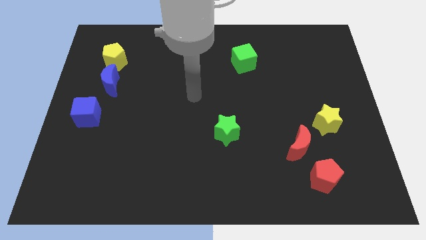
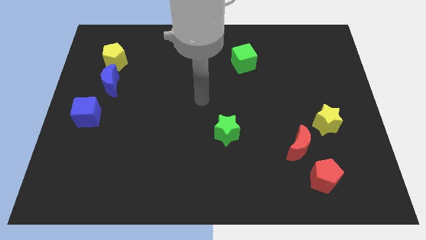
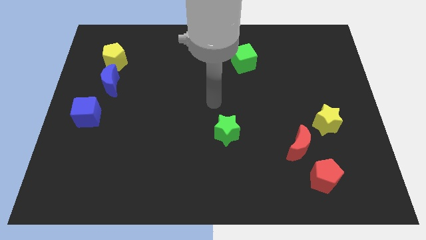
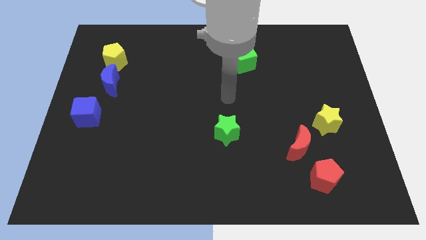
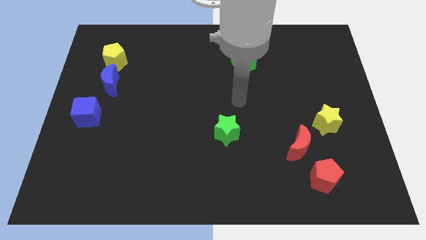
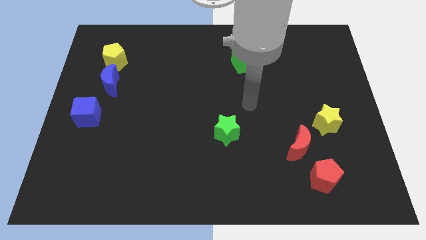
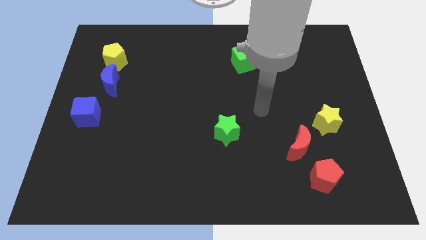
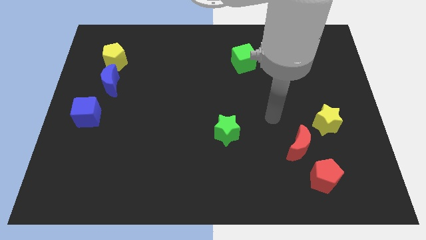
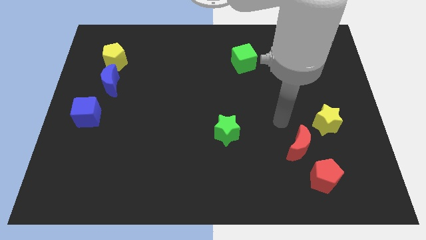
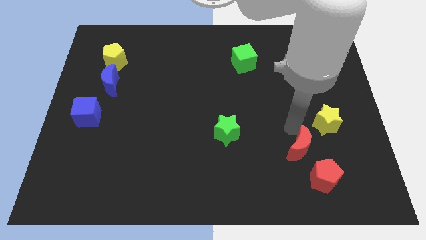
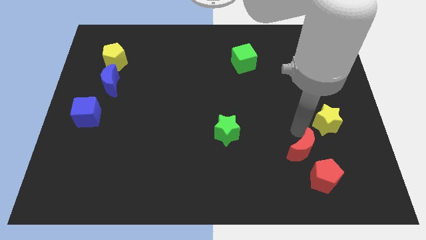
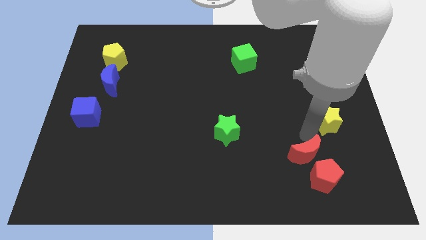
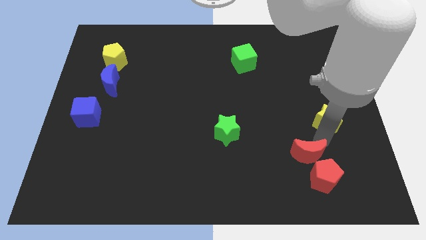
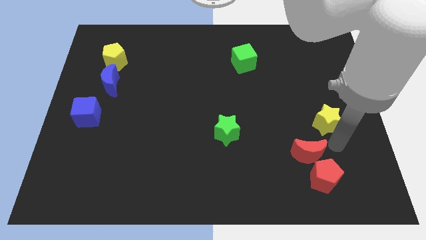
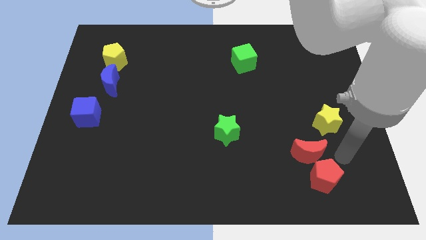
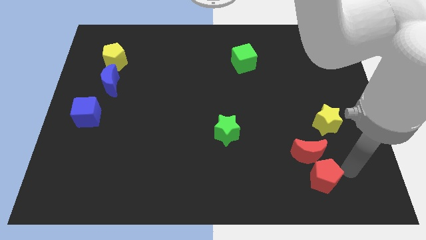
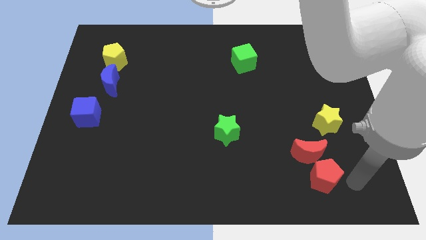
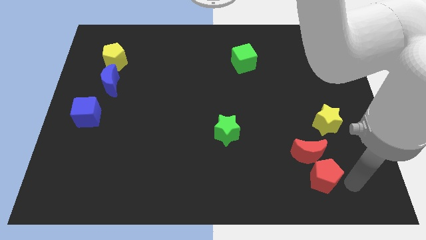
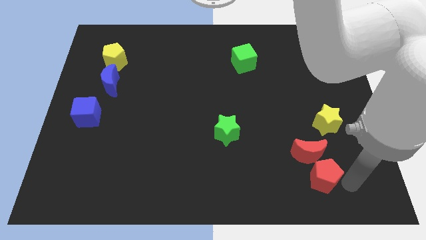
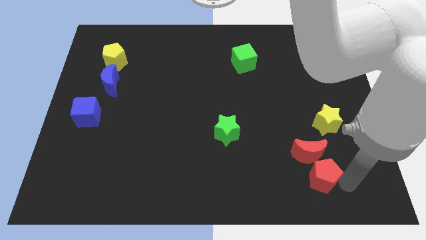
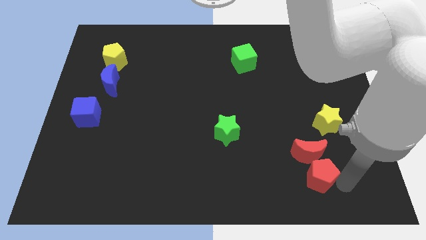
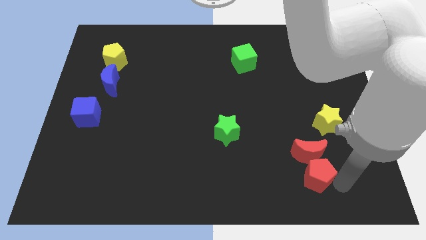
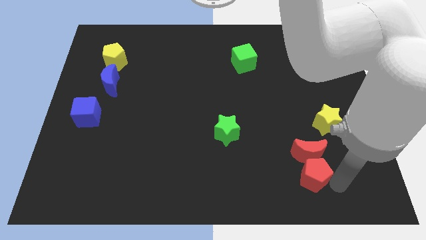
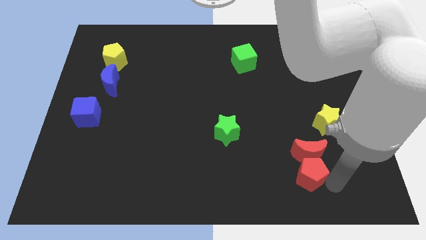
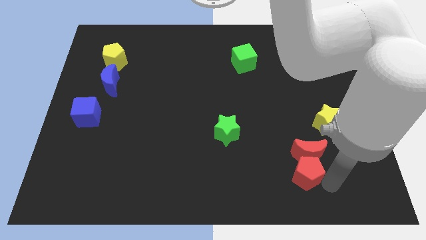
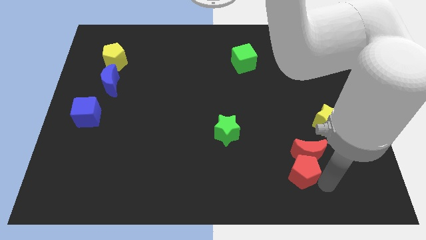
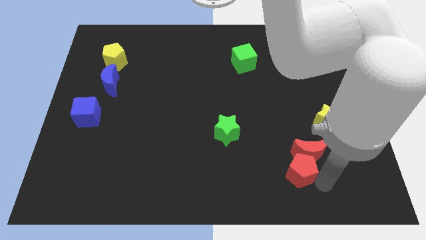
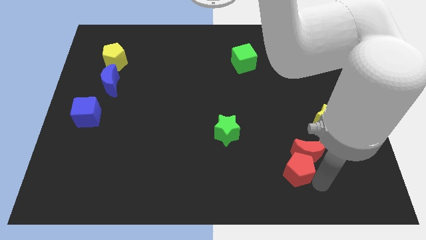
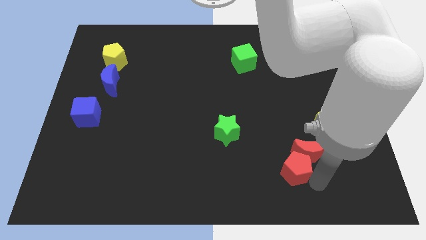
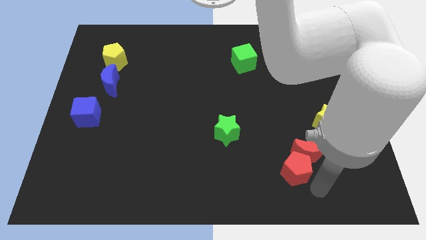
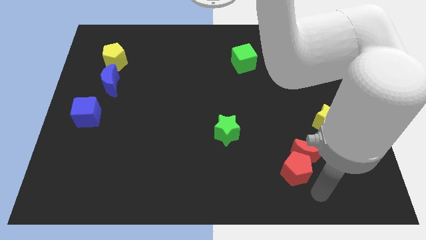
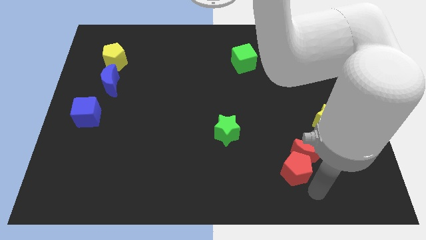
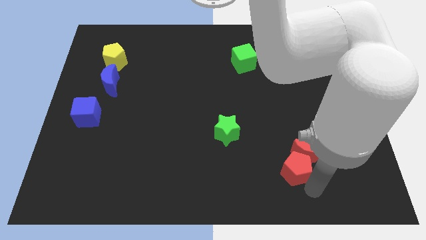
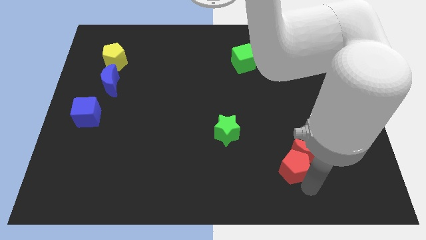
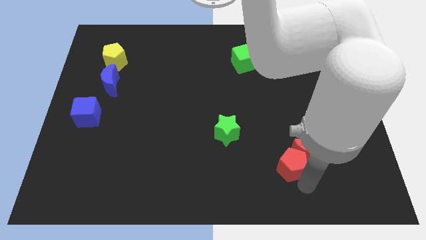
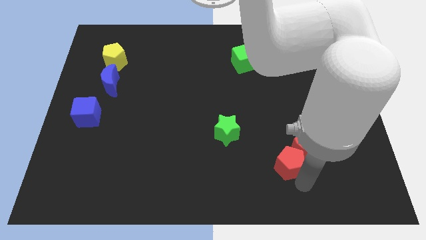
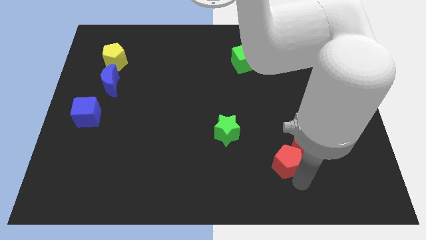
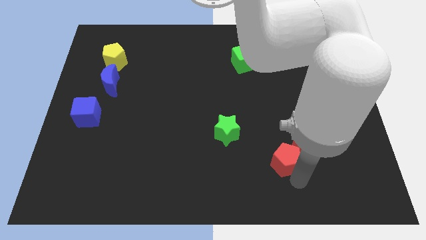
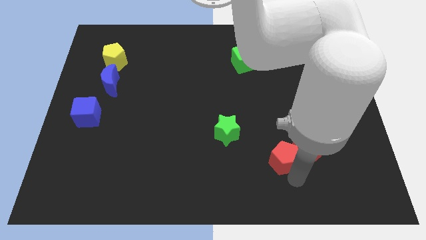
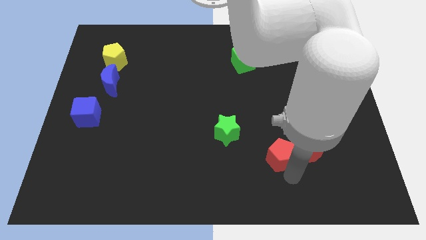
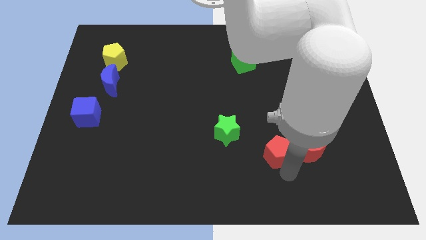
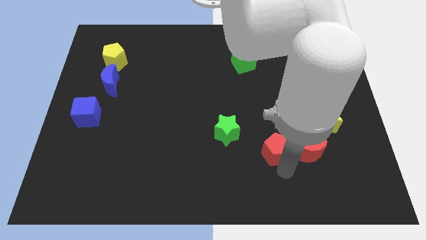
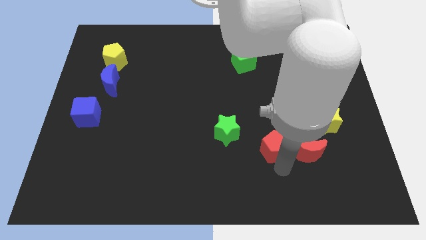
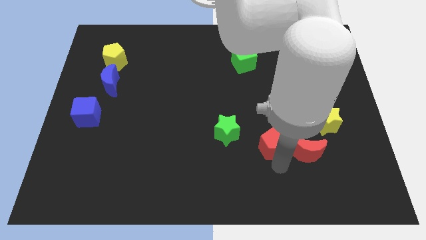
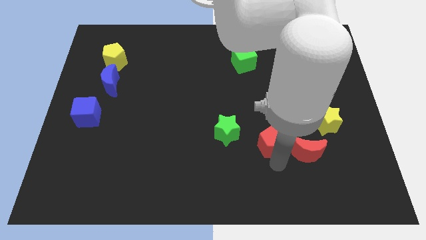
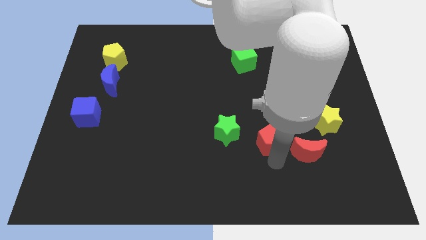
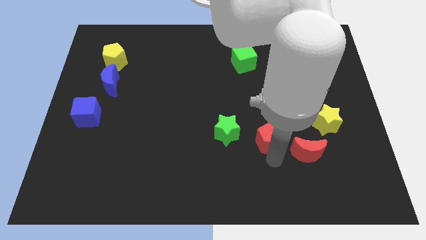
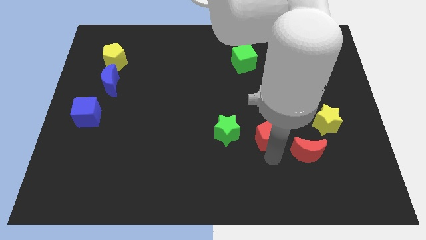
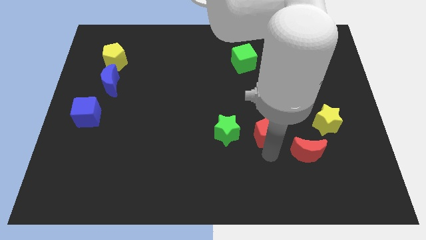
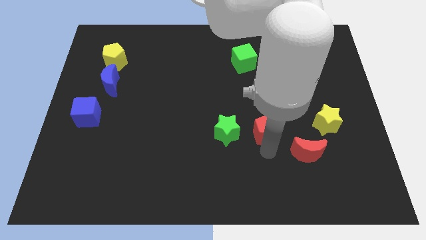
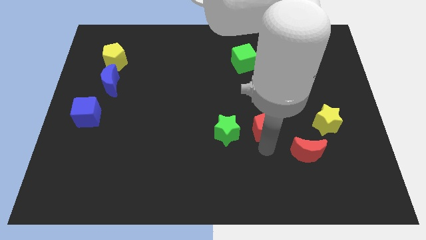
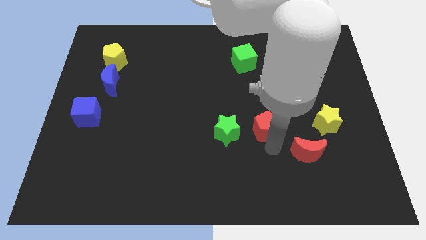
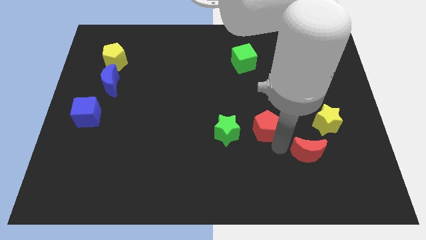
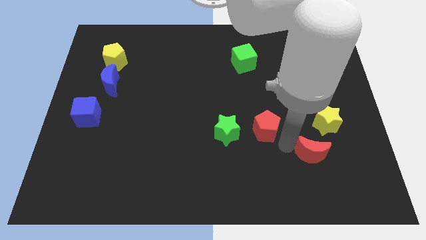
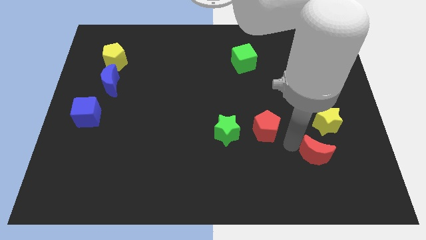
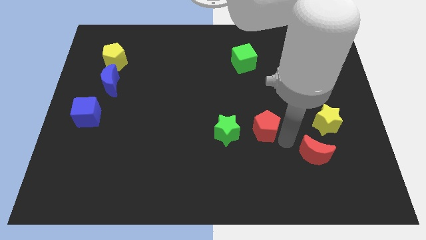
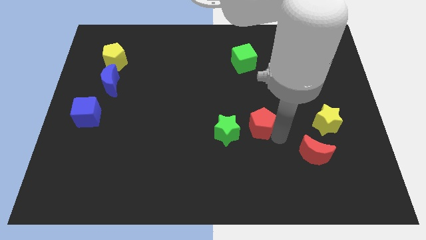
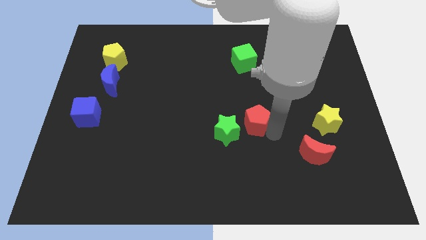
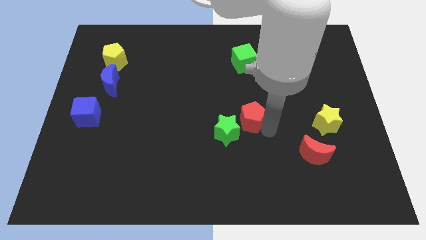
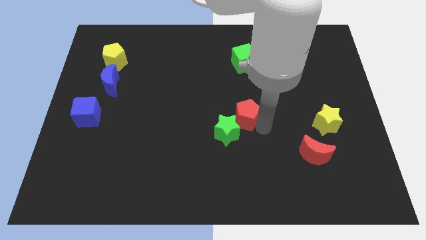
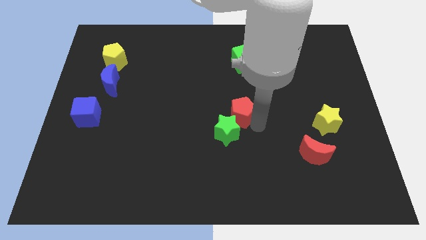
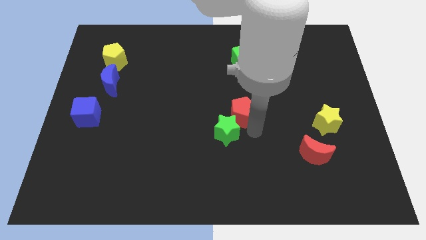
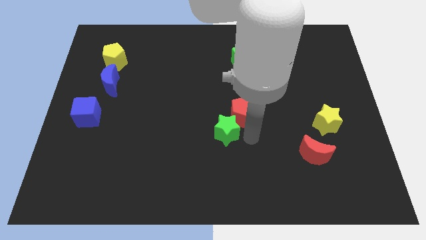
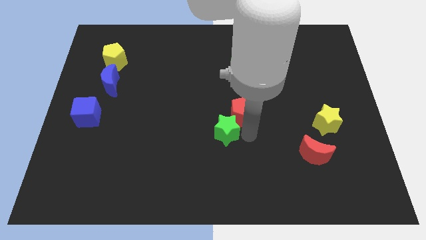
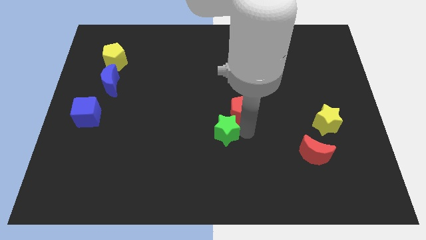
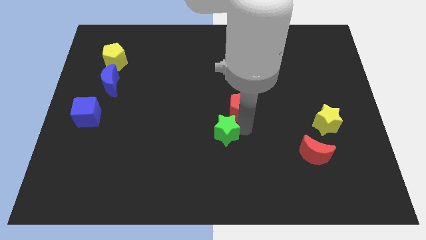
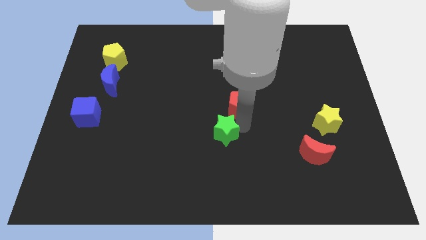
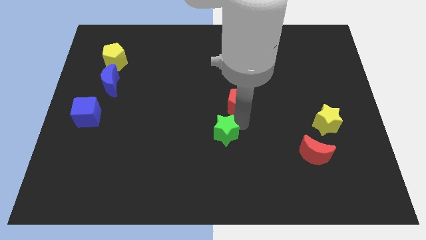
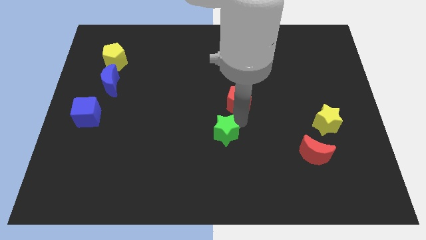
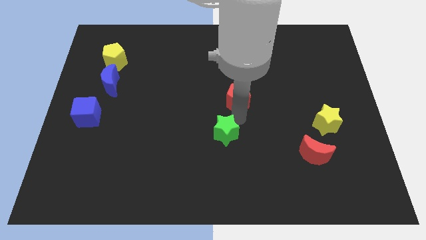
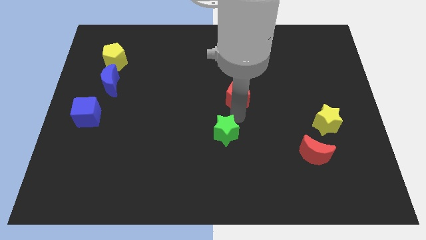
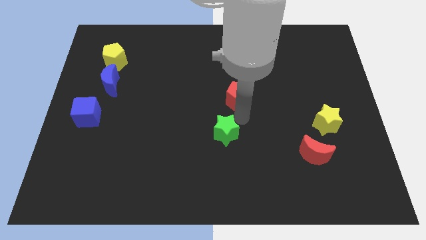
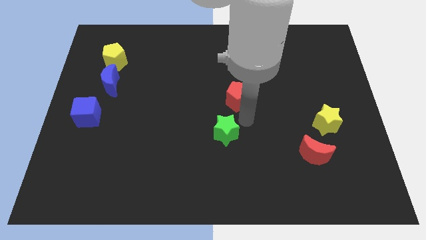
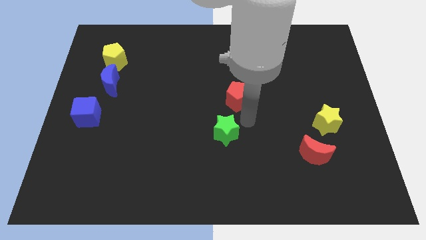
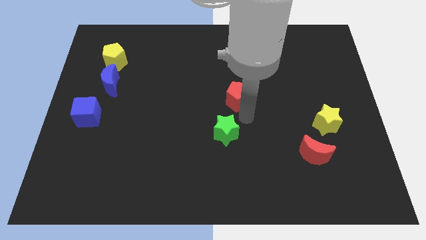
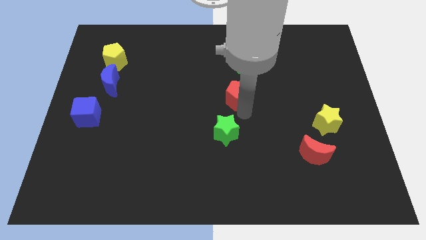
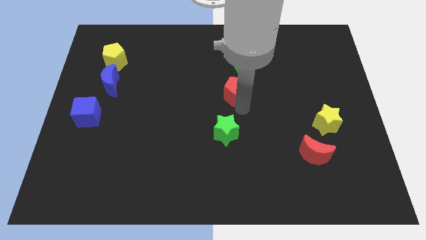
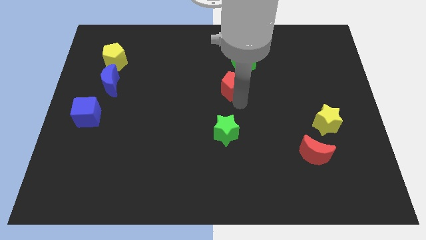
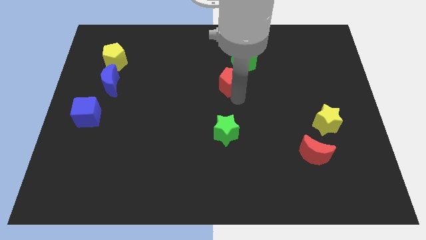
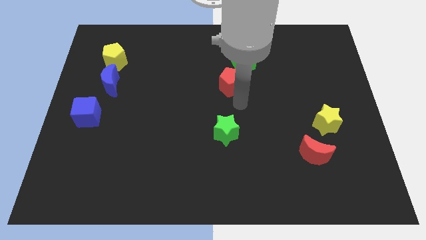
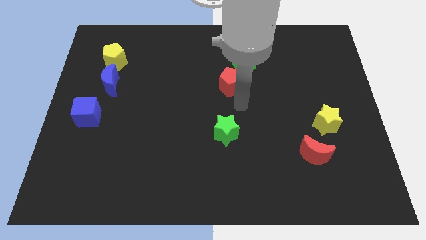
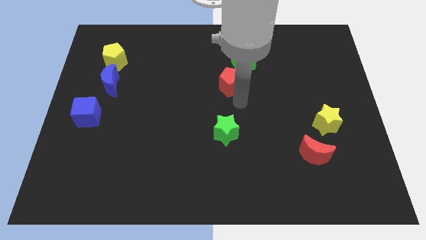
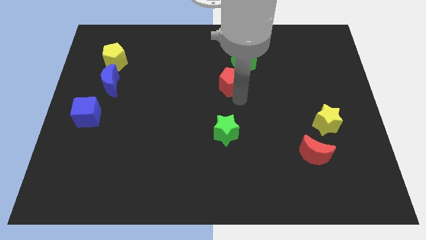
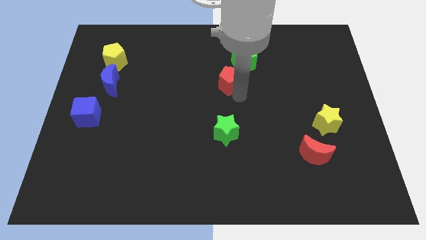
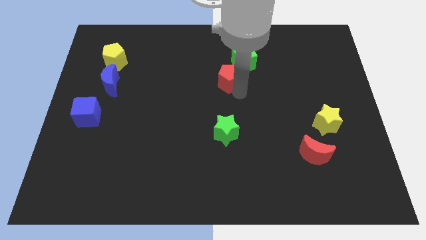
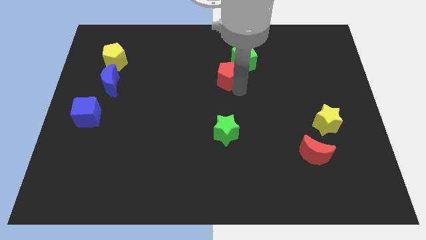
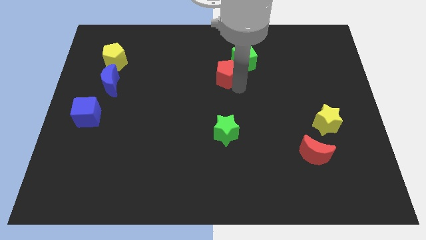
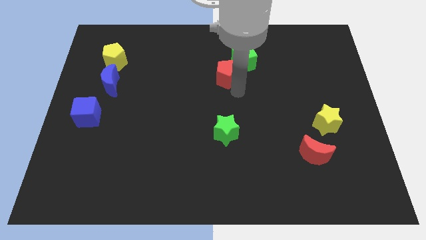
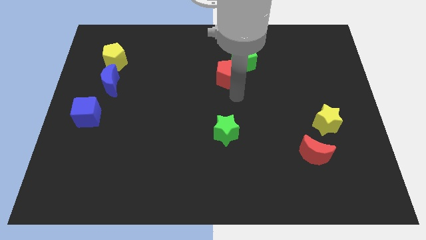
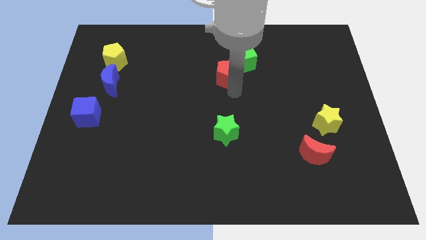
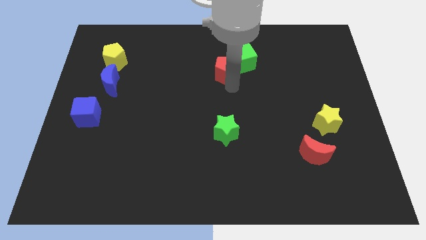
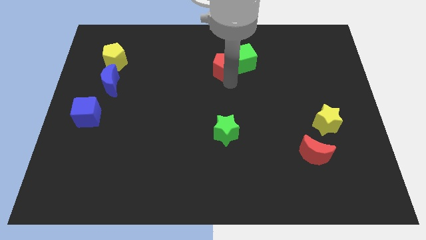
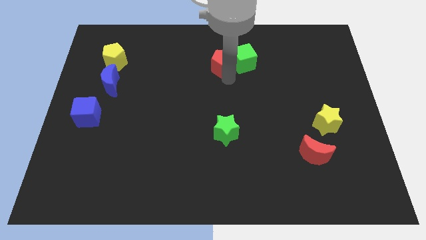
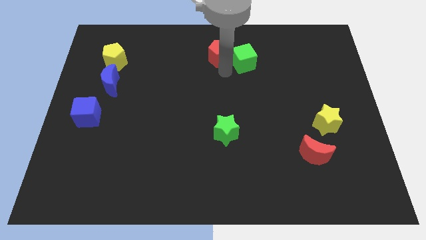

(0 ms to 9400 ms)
slide the red pentagon to the top
